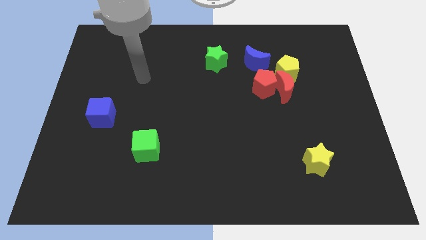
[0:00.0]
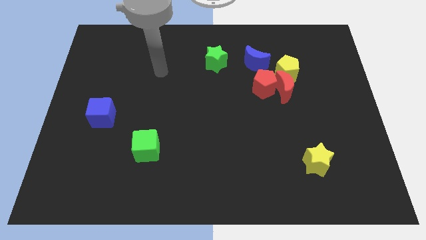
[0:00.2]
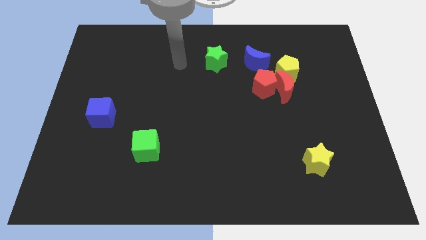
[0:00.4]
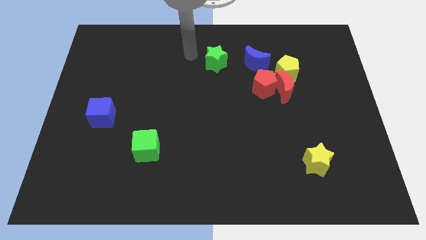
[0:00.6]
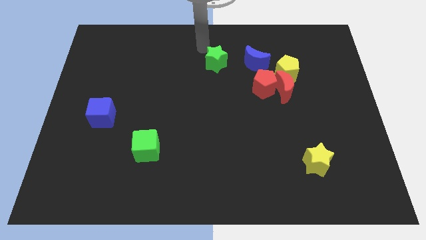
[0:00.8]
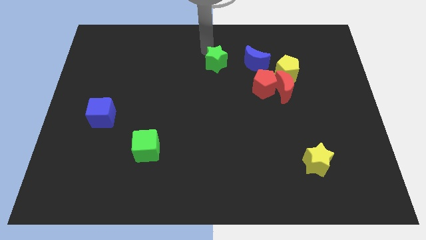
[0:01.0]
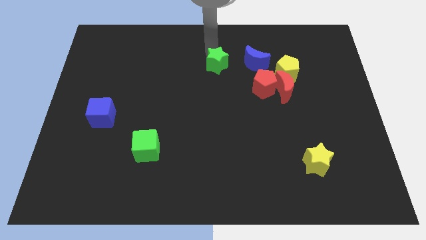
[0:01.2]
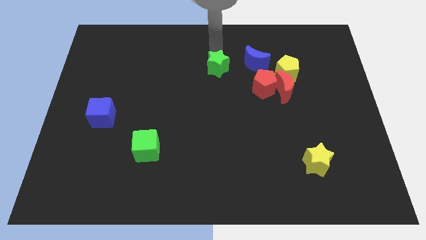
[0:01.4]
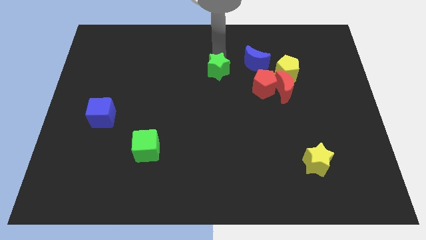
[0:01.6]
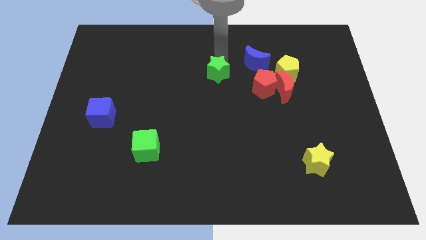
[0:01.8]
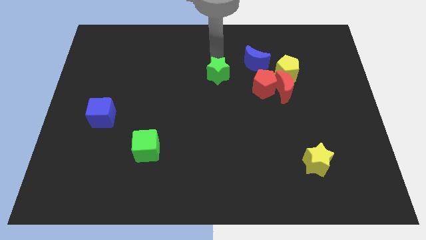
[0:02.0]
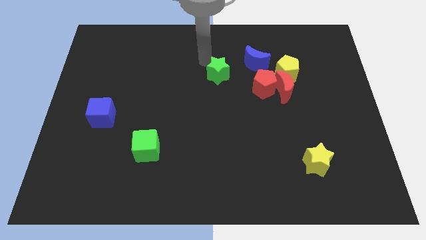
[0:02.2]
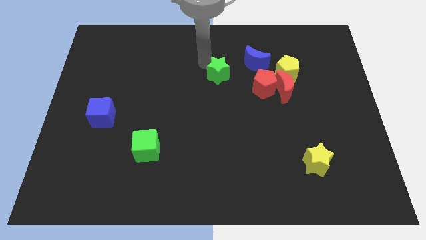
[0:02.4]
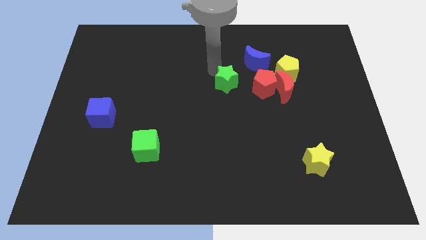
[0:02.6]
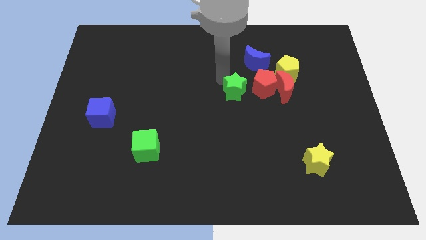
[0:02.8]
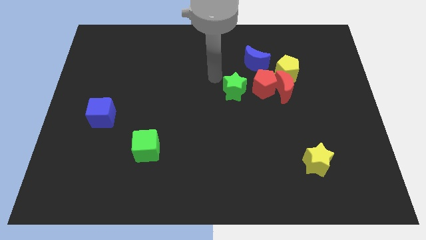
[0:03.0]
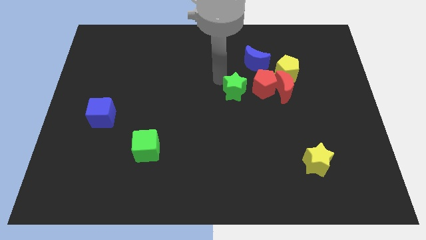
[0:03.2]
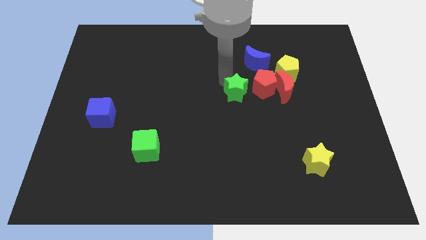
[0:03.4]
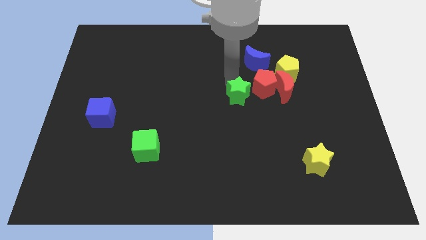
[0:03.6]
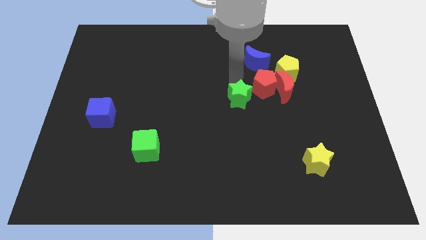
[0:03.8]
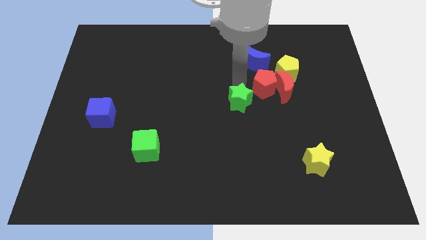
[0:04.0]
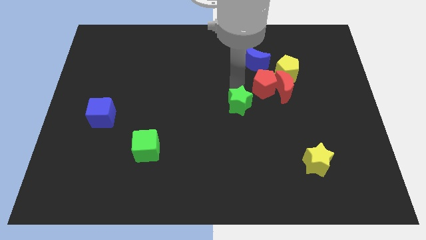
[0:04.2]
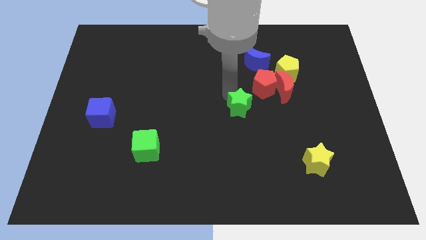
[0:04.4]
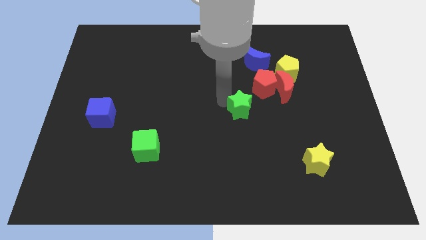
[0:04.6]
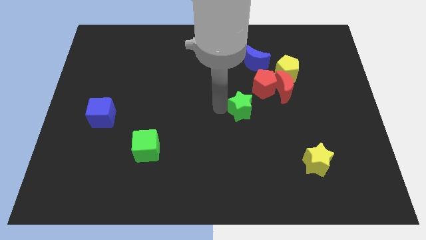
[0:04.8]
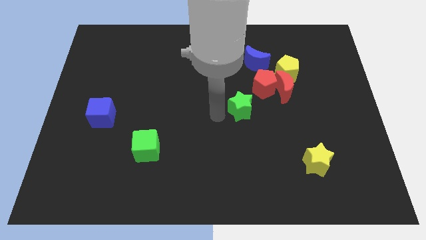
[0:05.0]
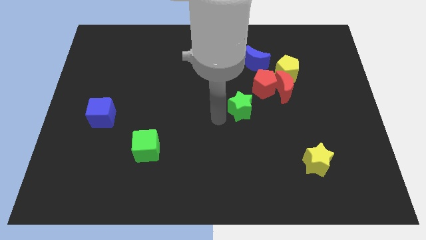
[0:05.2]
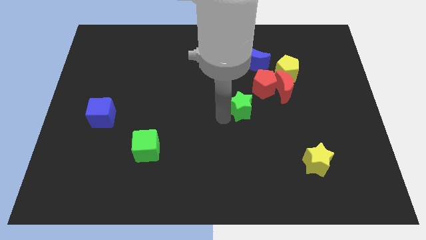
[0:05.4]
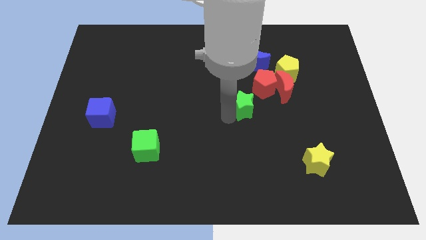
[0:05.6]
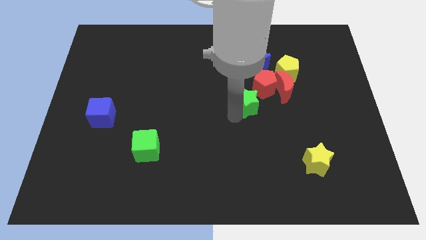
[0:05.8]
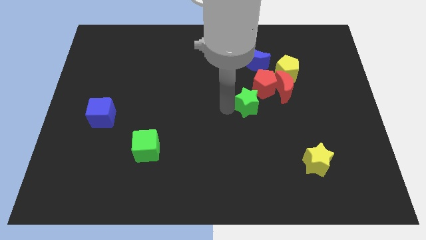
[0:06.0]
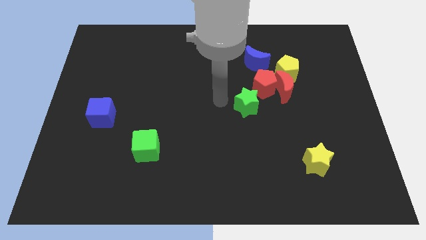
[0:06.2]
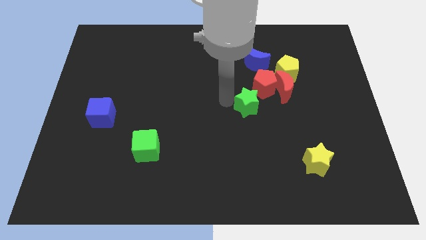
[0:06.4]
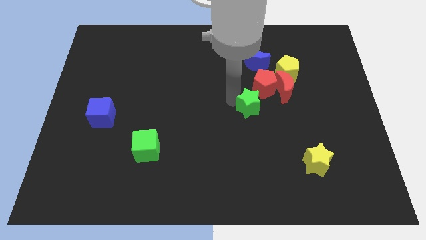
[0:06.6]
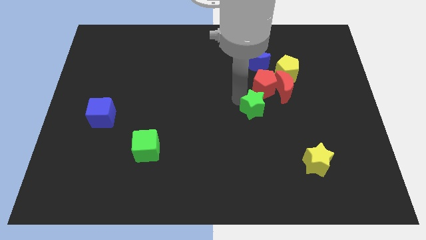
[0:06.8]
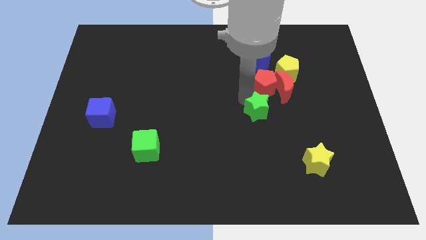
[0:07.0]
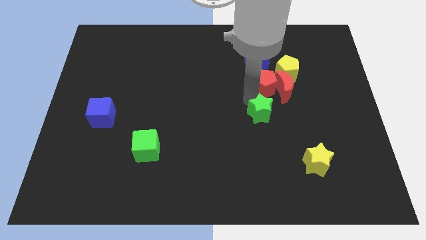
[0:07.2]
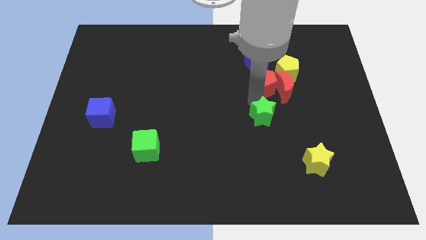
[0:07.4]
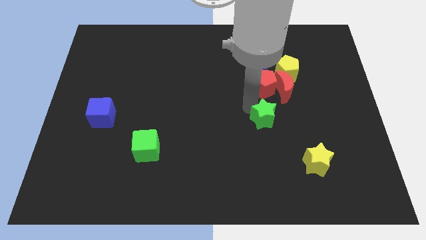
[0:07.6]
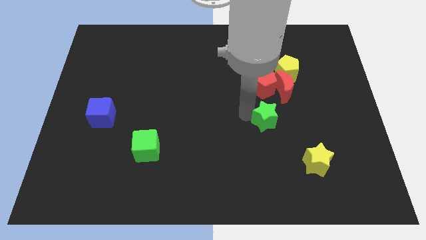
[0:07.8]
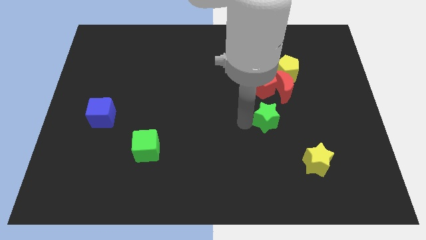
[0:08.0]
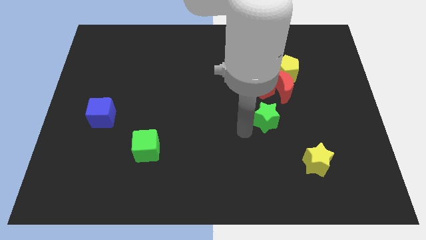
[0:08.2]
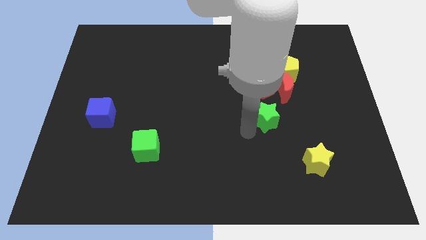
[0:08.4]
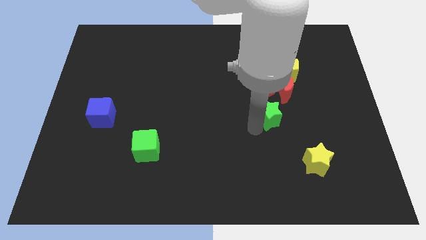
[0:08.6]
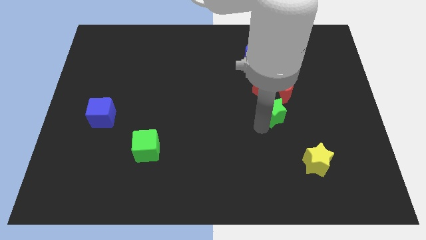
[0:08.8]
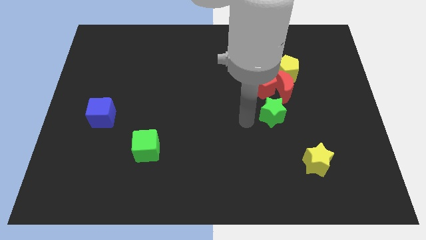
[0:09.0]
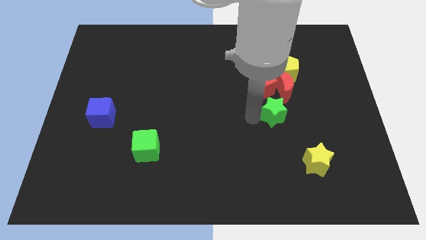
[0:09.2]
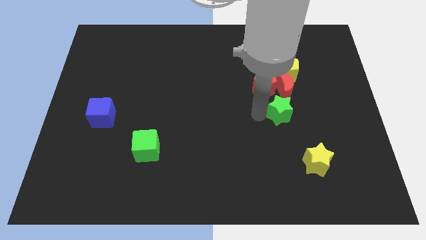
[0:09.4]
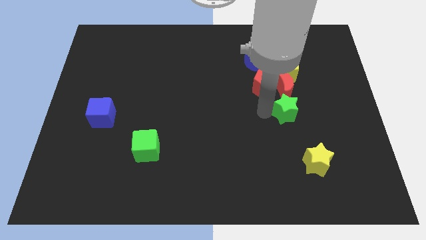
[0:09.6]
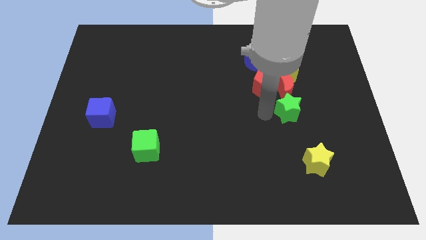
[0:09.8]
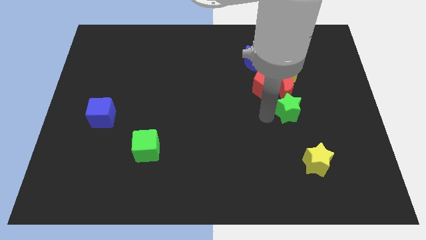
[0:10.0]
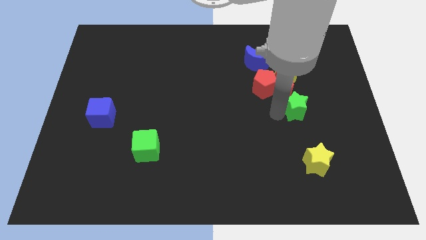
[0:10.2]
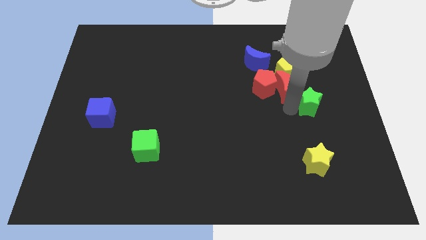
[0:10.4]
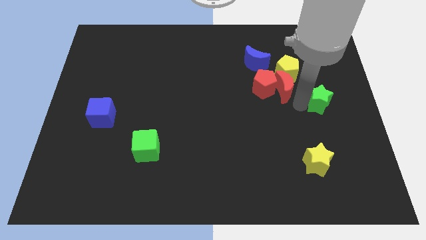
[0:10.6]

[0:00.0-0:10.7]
move the green star to the right side of the board

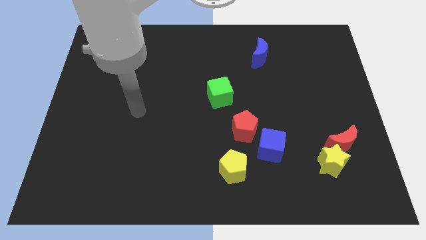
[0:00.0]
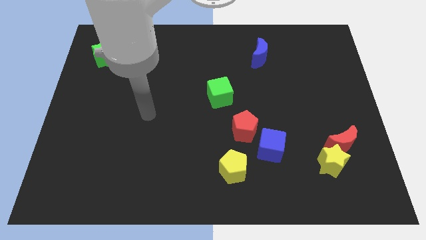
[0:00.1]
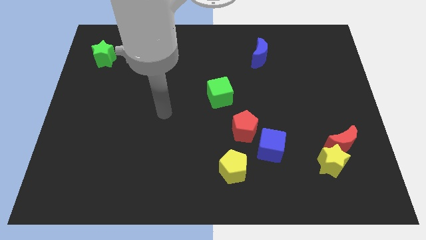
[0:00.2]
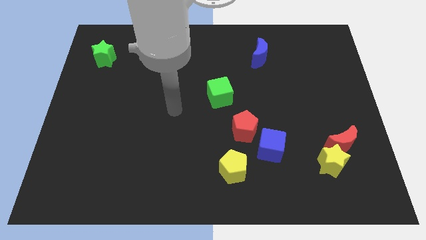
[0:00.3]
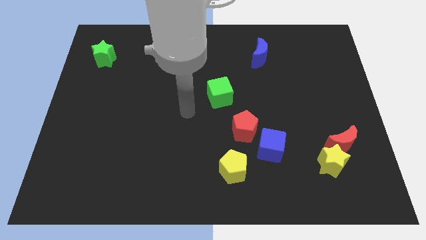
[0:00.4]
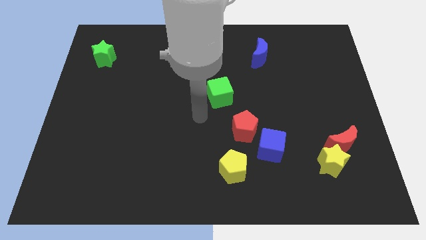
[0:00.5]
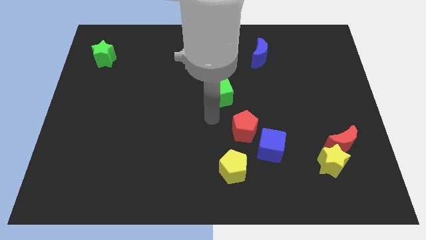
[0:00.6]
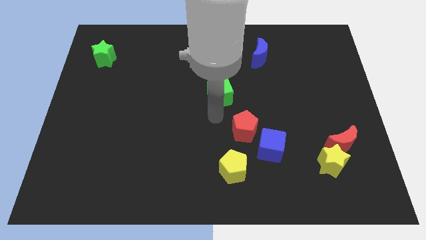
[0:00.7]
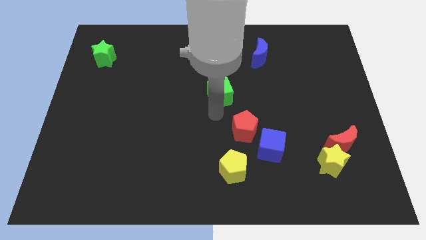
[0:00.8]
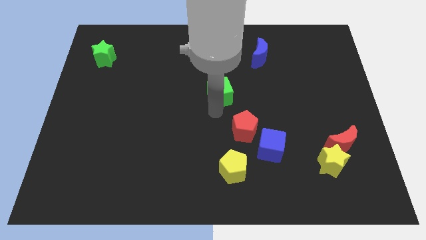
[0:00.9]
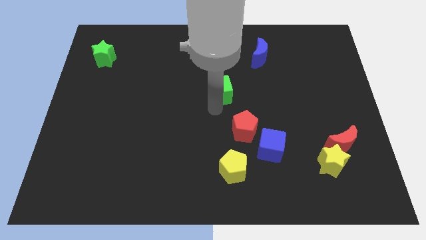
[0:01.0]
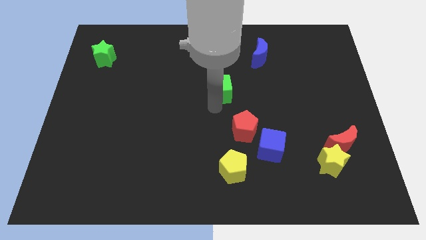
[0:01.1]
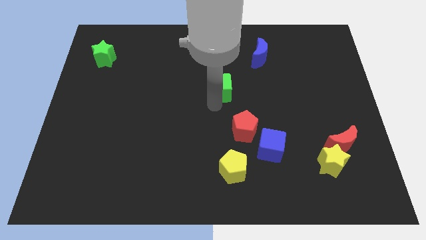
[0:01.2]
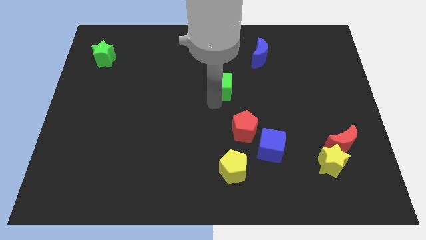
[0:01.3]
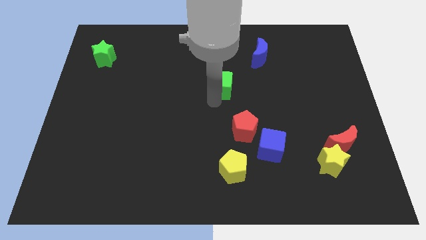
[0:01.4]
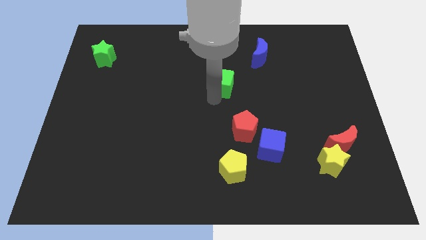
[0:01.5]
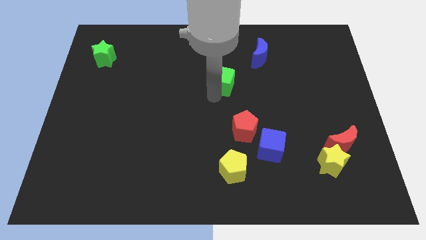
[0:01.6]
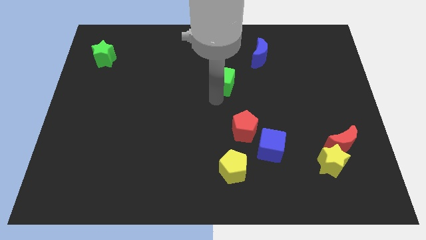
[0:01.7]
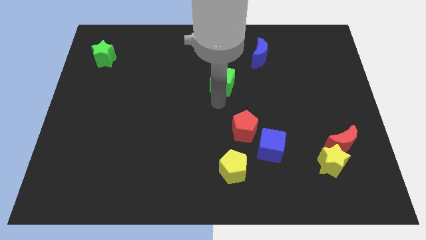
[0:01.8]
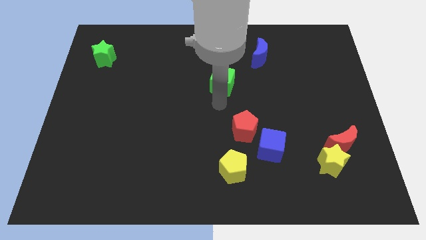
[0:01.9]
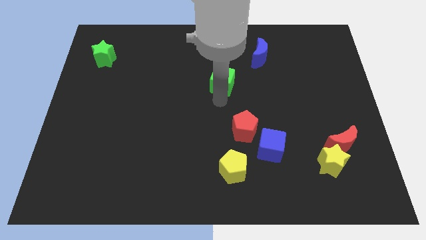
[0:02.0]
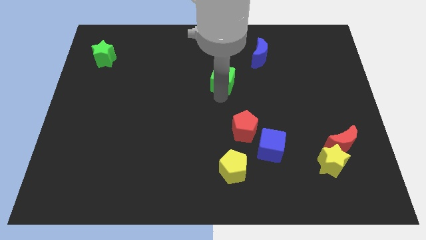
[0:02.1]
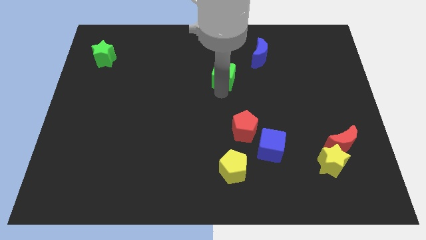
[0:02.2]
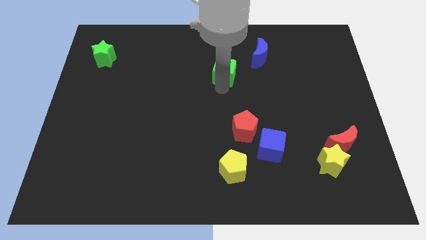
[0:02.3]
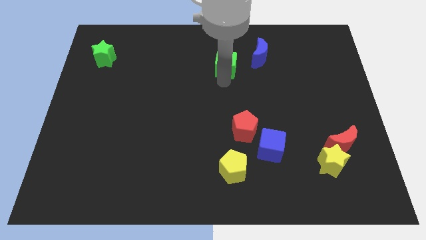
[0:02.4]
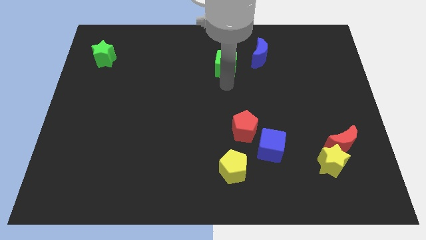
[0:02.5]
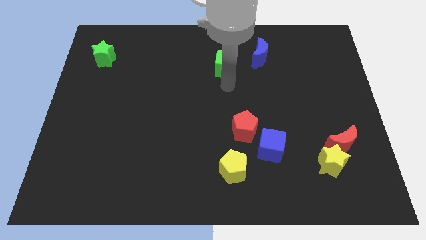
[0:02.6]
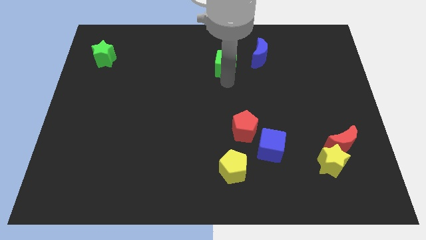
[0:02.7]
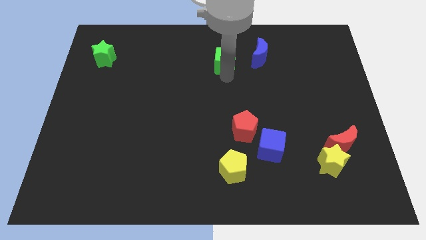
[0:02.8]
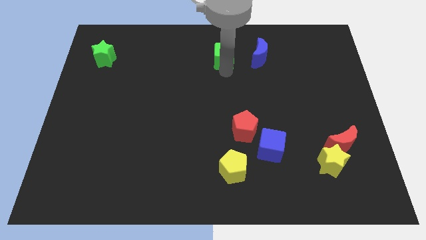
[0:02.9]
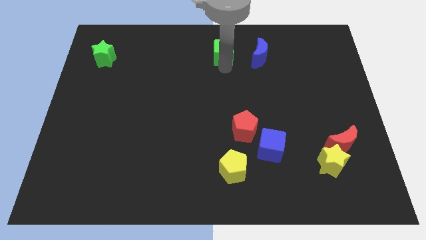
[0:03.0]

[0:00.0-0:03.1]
slide the green cube to the top side
